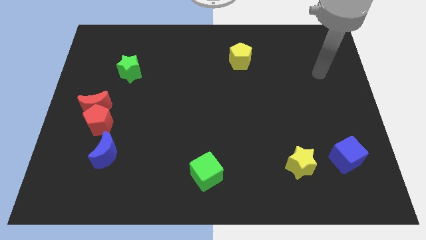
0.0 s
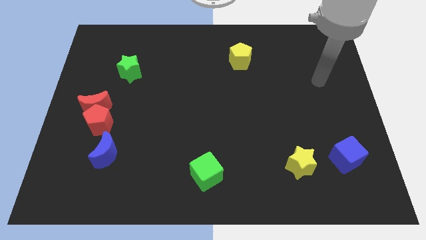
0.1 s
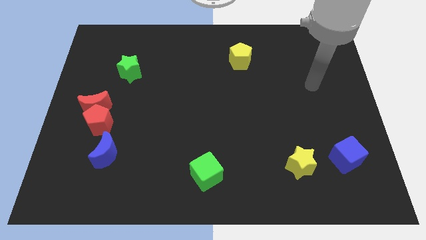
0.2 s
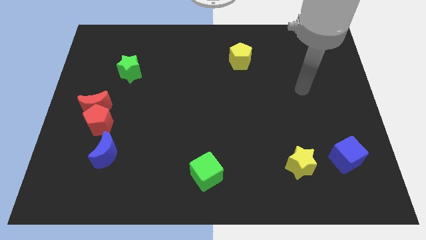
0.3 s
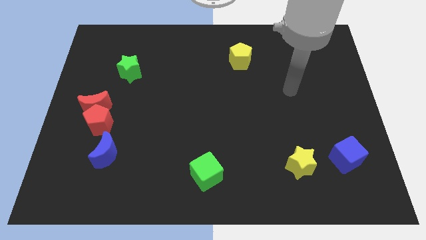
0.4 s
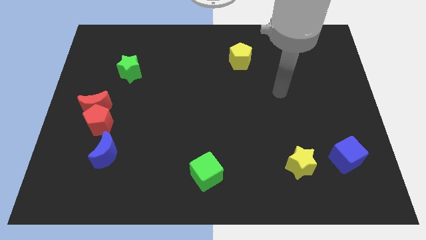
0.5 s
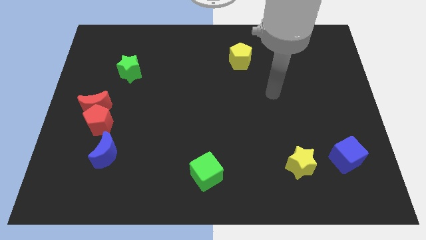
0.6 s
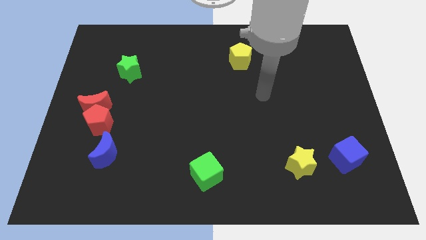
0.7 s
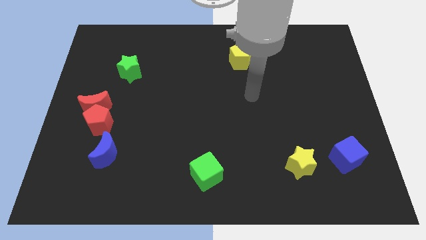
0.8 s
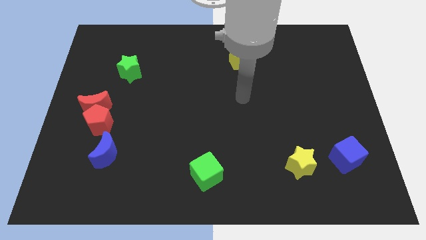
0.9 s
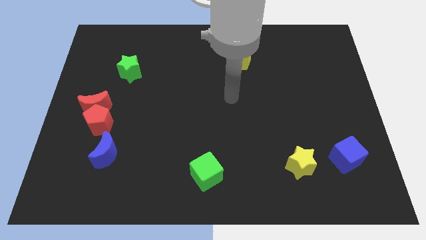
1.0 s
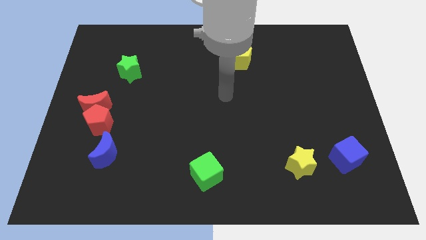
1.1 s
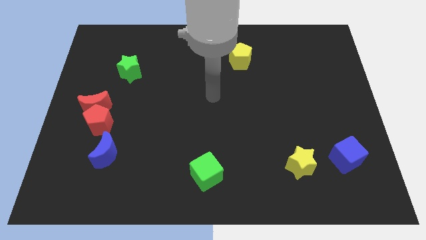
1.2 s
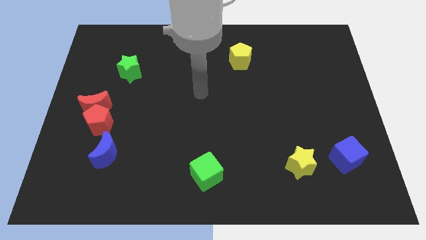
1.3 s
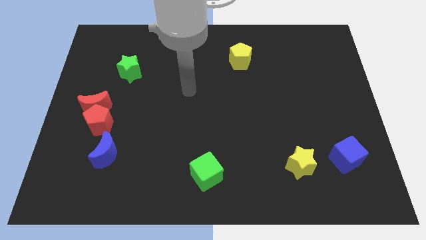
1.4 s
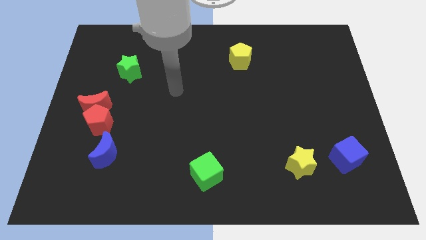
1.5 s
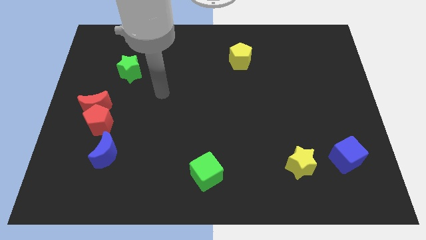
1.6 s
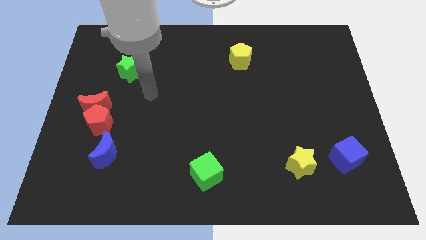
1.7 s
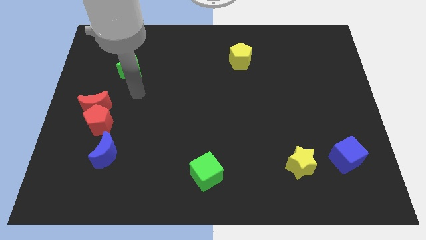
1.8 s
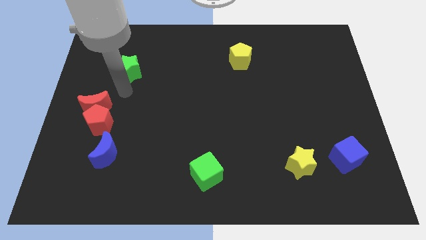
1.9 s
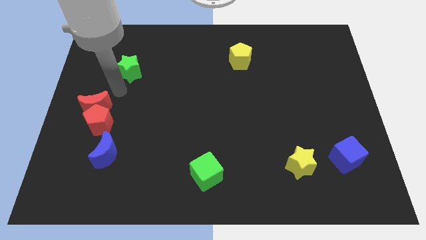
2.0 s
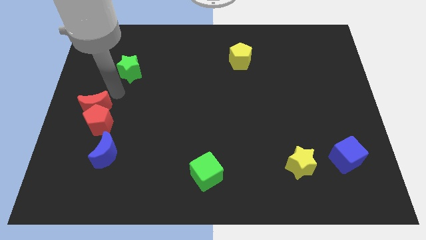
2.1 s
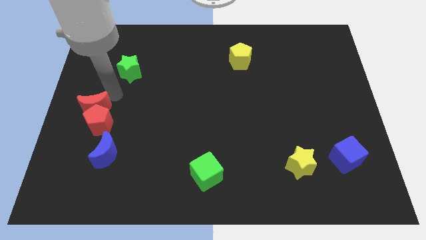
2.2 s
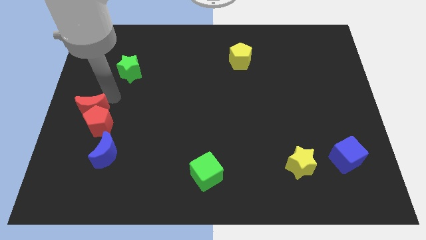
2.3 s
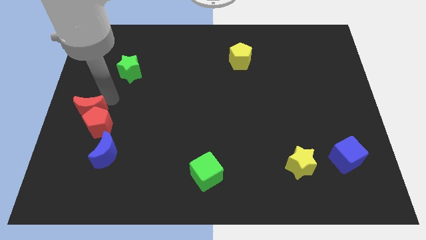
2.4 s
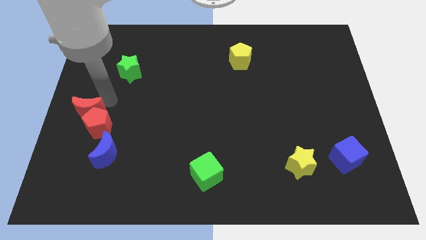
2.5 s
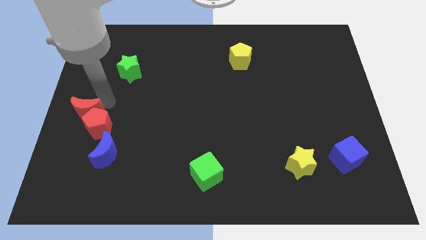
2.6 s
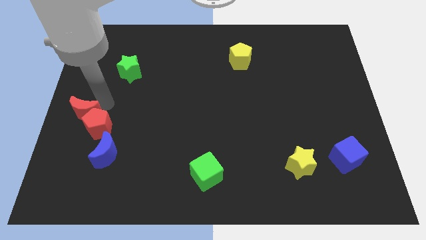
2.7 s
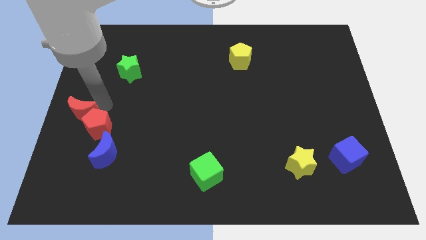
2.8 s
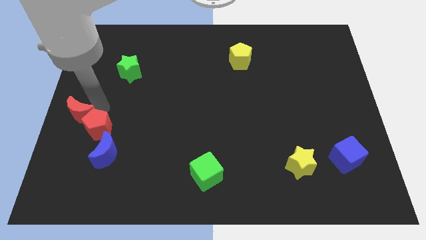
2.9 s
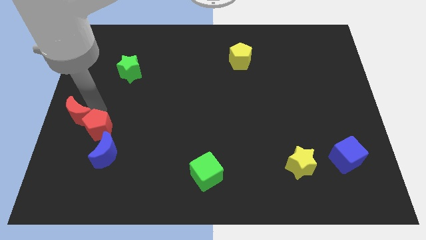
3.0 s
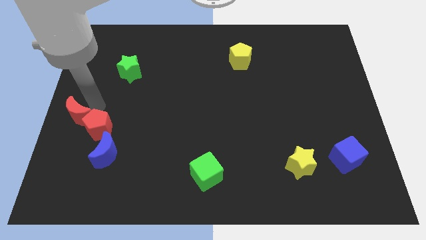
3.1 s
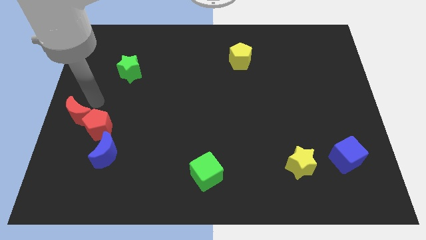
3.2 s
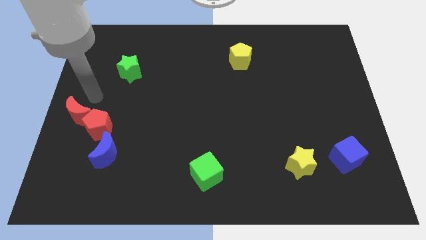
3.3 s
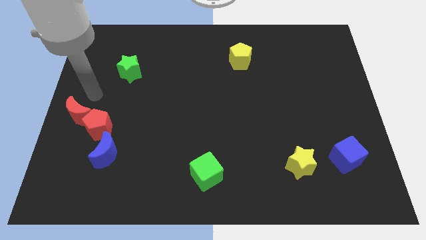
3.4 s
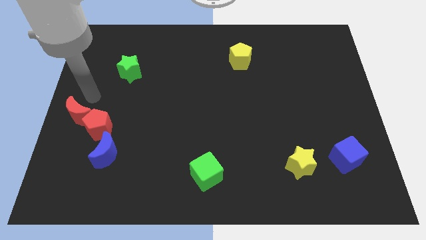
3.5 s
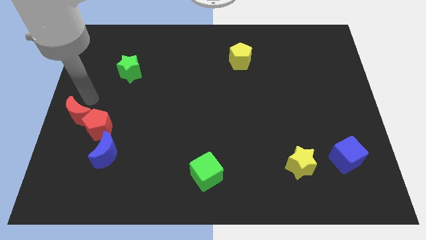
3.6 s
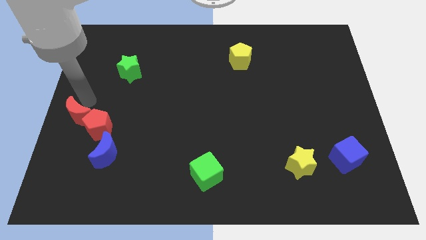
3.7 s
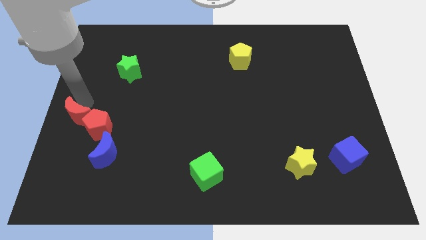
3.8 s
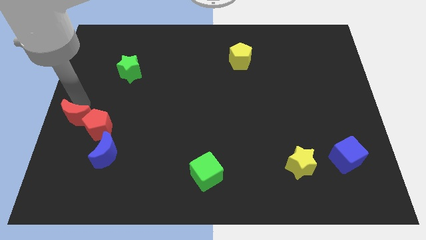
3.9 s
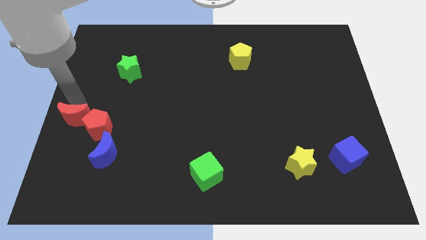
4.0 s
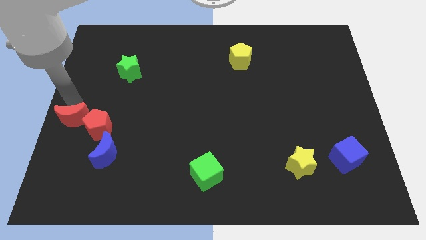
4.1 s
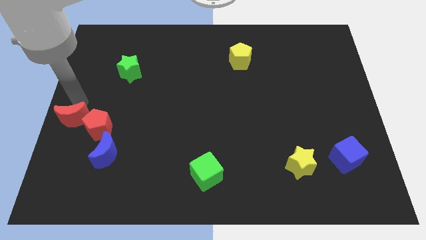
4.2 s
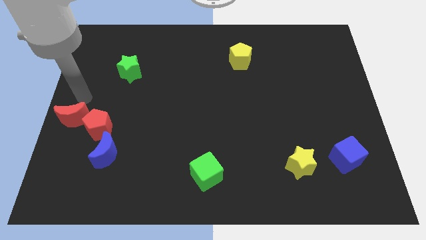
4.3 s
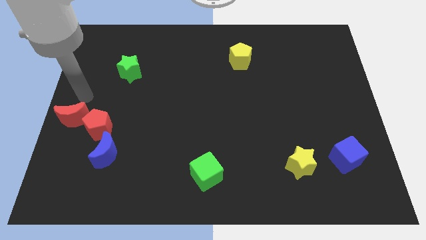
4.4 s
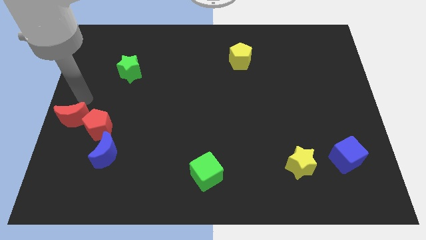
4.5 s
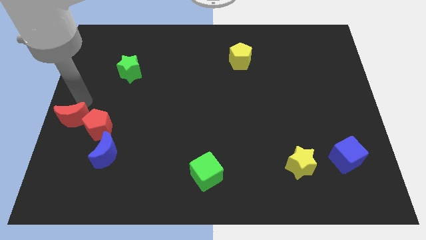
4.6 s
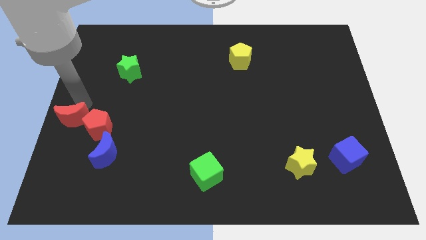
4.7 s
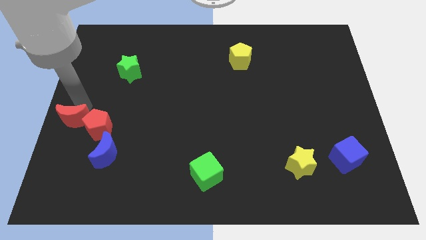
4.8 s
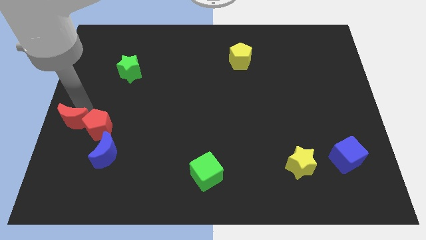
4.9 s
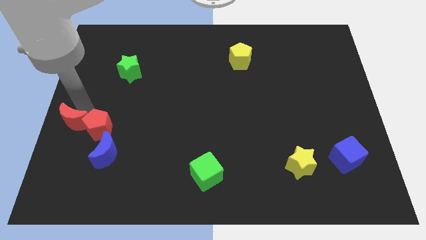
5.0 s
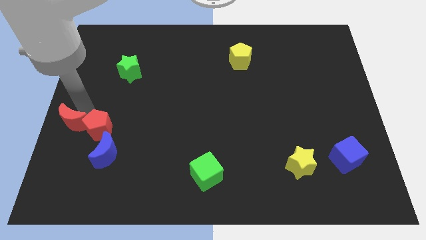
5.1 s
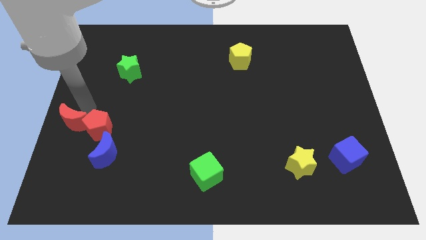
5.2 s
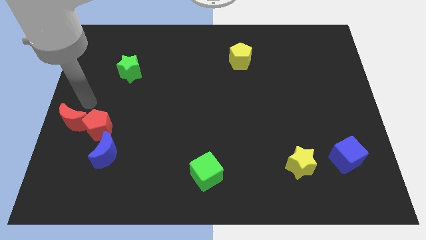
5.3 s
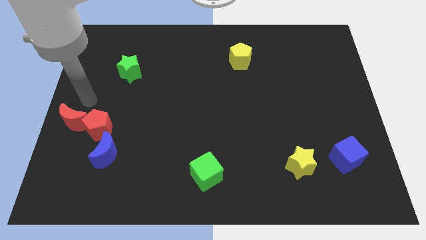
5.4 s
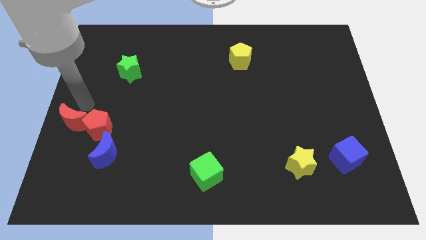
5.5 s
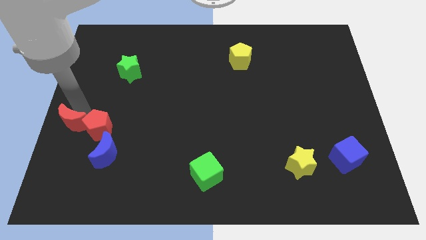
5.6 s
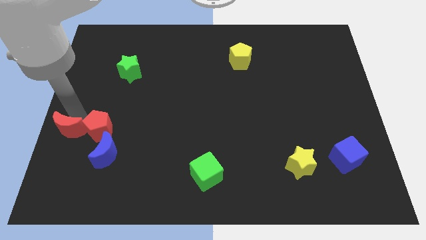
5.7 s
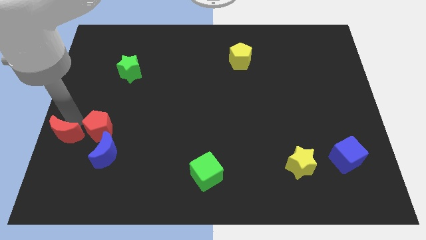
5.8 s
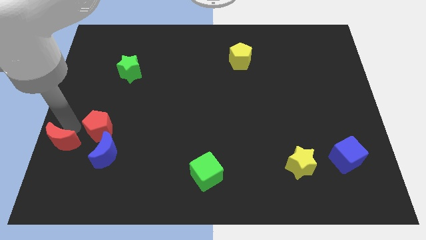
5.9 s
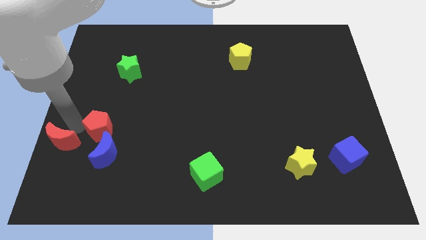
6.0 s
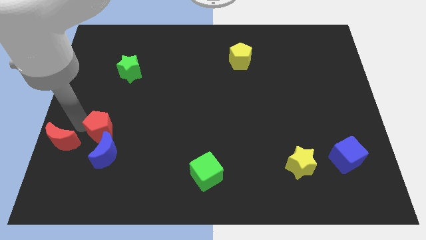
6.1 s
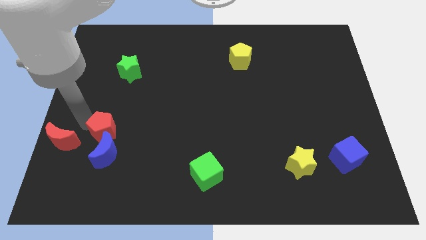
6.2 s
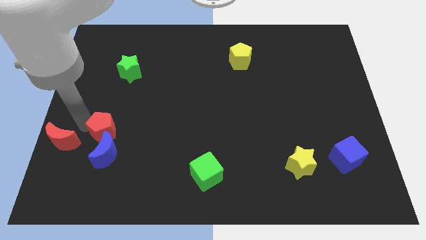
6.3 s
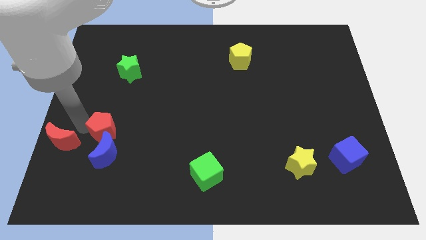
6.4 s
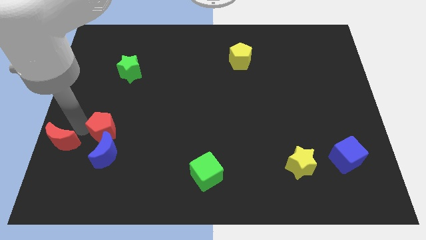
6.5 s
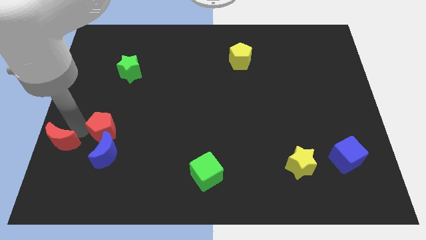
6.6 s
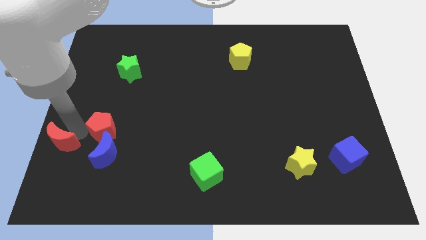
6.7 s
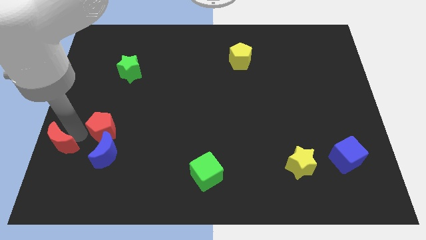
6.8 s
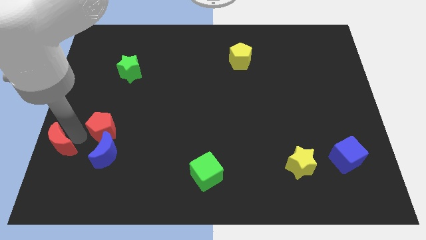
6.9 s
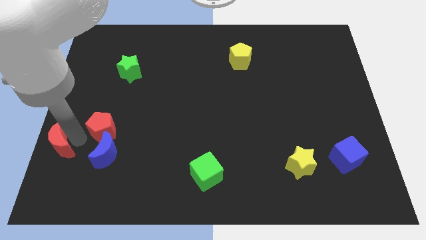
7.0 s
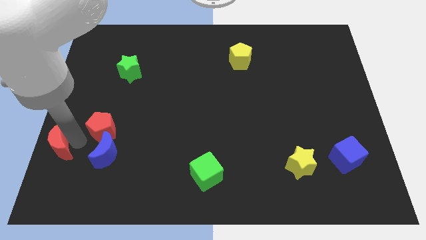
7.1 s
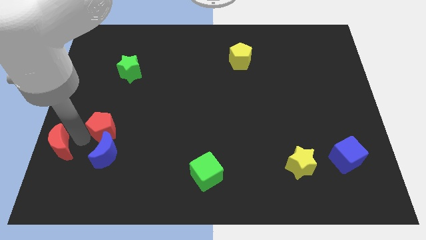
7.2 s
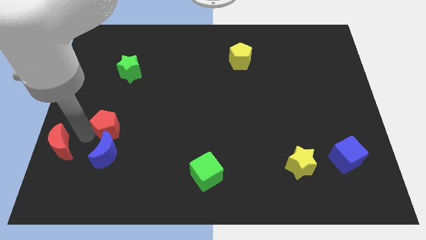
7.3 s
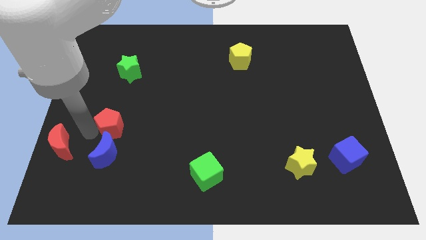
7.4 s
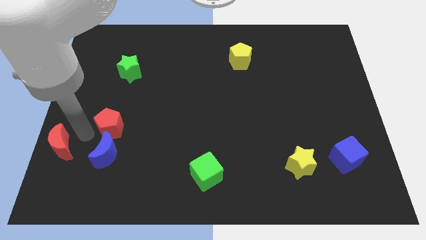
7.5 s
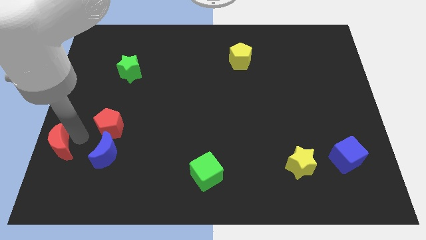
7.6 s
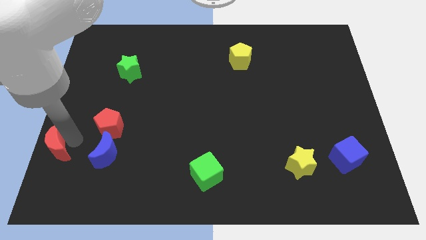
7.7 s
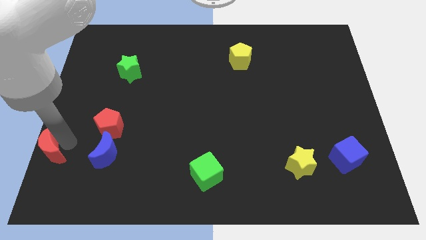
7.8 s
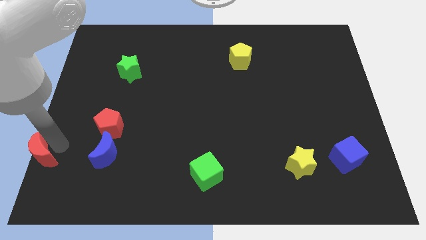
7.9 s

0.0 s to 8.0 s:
move the red moon to the bottom left of the board

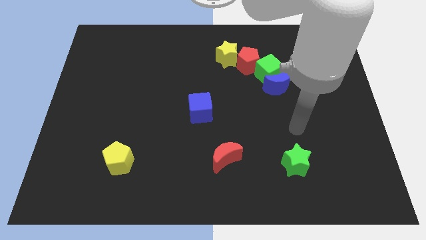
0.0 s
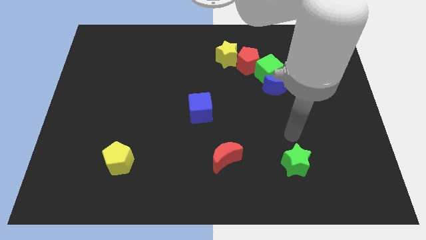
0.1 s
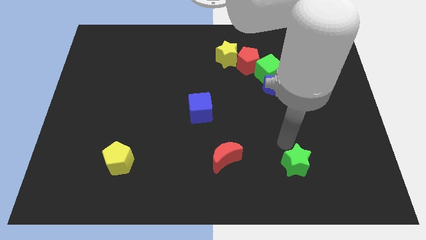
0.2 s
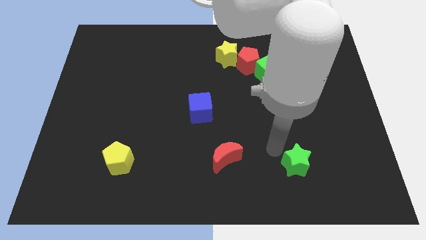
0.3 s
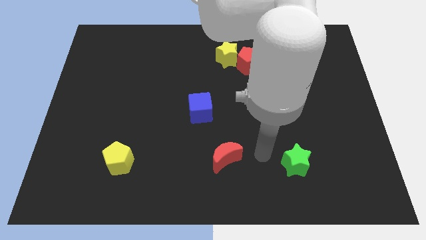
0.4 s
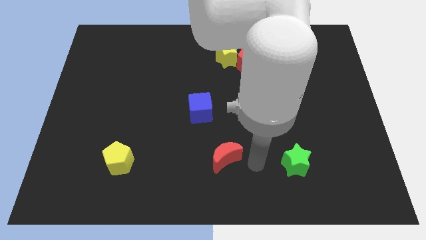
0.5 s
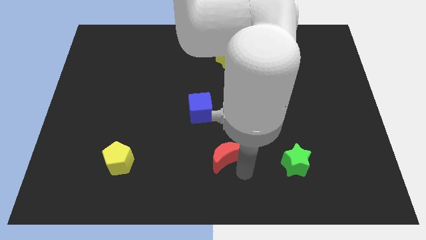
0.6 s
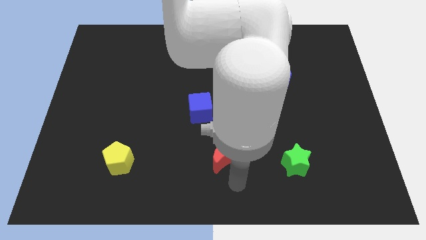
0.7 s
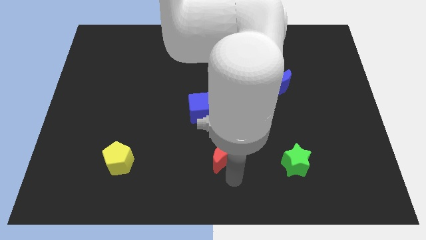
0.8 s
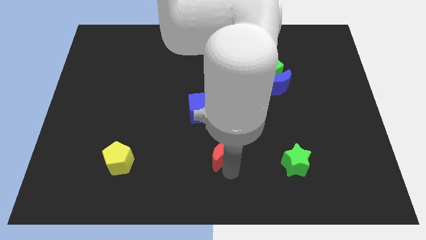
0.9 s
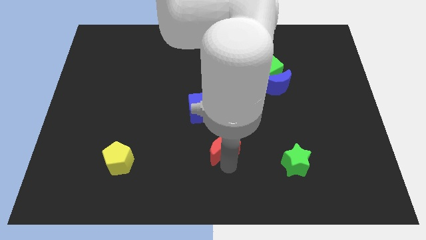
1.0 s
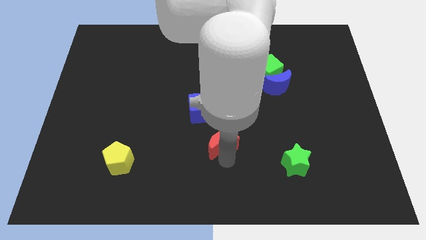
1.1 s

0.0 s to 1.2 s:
move the red moon to the middle
